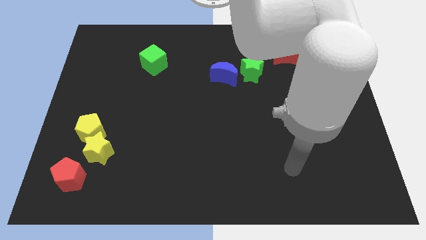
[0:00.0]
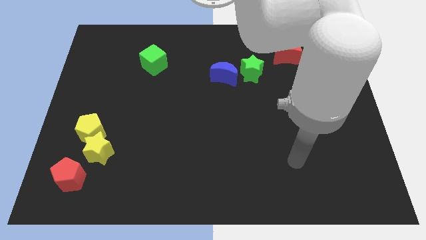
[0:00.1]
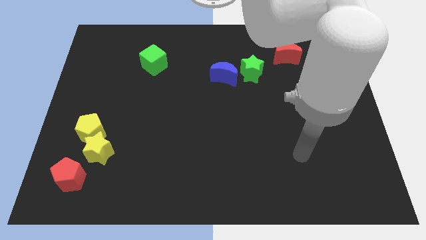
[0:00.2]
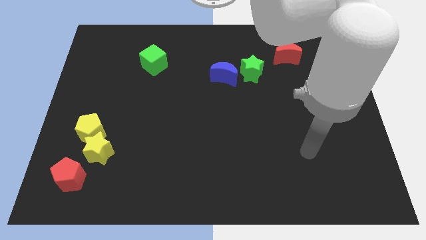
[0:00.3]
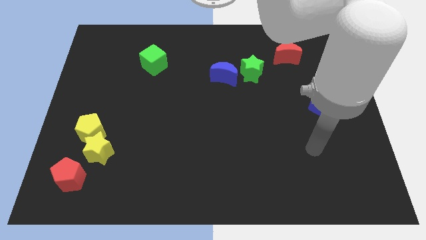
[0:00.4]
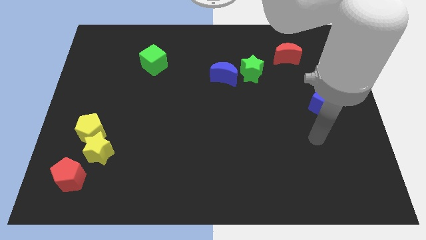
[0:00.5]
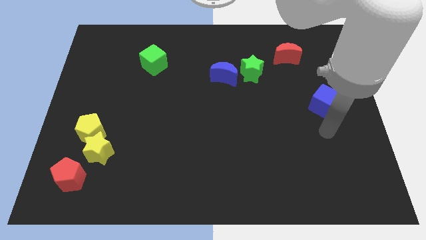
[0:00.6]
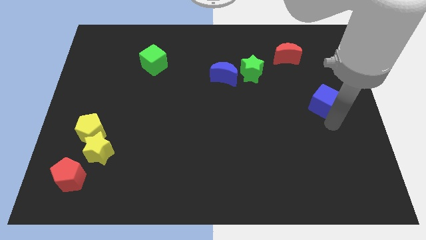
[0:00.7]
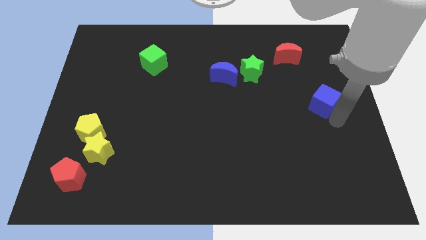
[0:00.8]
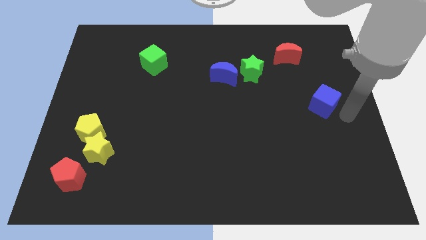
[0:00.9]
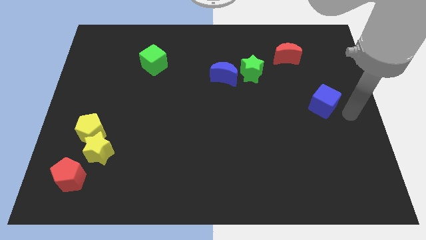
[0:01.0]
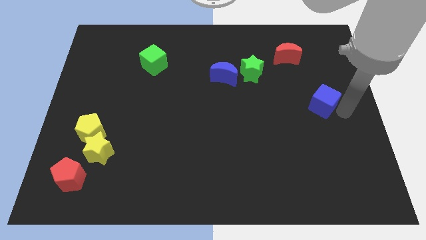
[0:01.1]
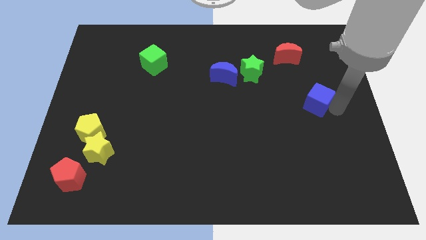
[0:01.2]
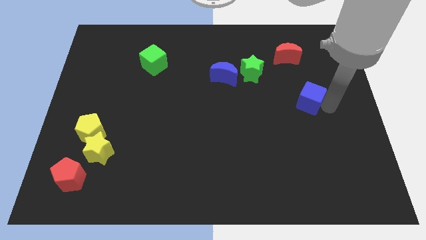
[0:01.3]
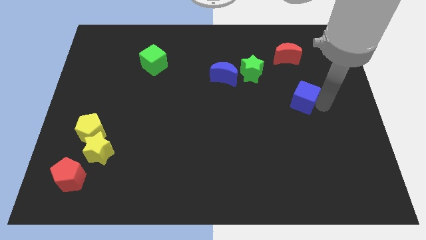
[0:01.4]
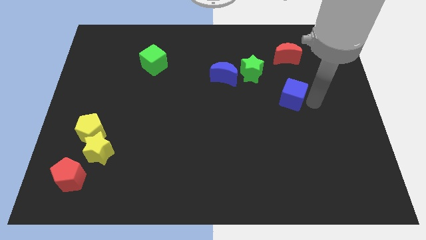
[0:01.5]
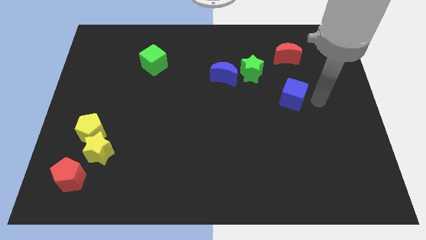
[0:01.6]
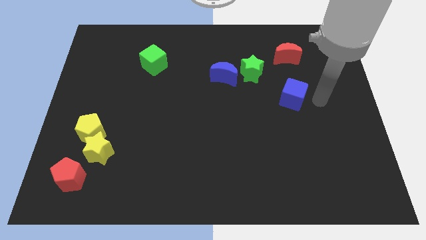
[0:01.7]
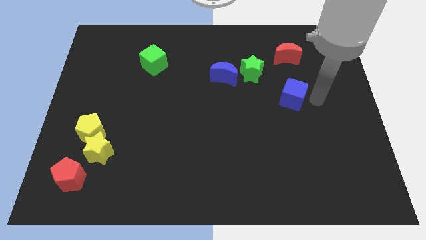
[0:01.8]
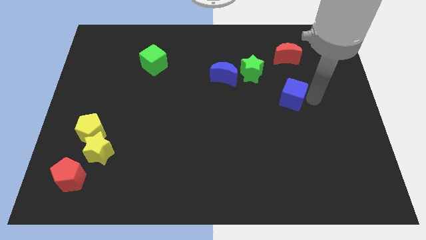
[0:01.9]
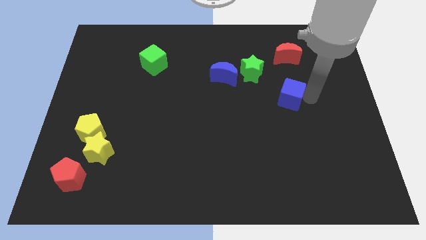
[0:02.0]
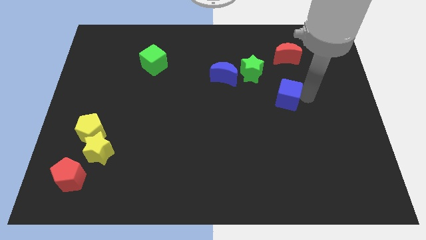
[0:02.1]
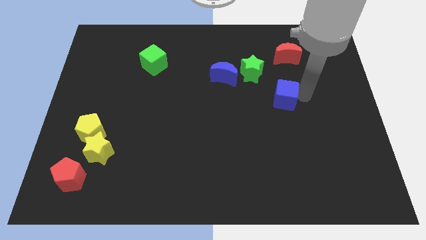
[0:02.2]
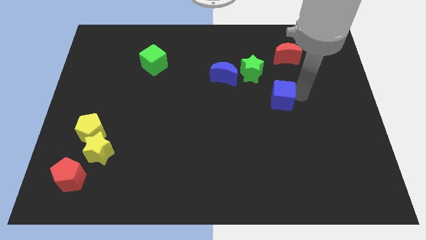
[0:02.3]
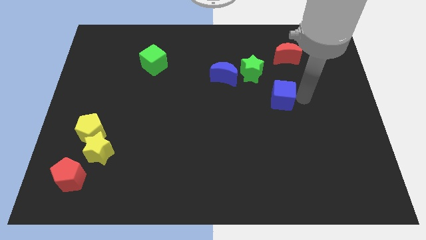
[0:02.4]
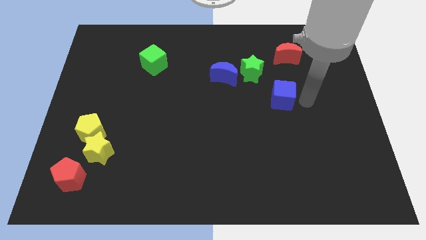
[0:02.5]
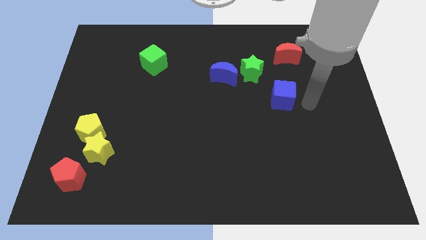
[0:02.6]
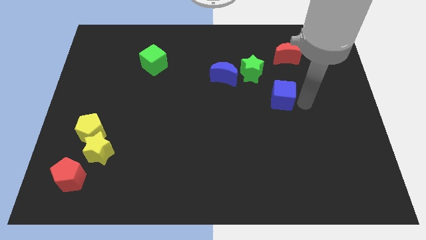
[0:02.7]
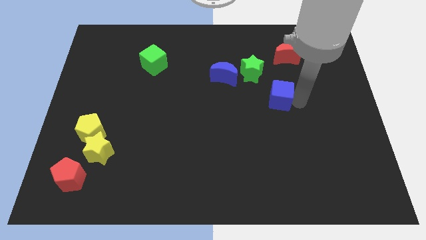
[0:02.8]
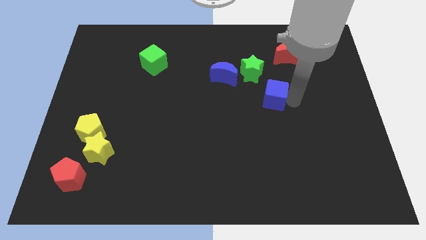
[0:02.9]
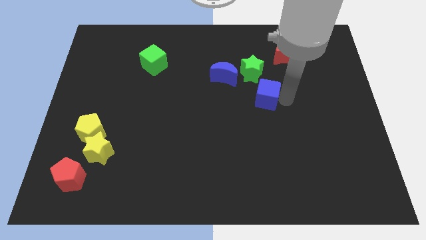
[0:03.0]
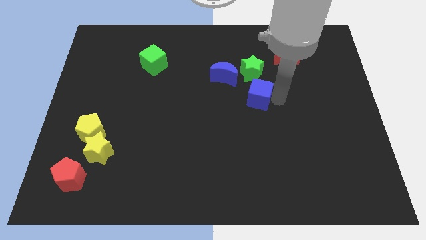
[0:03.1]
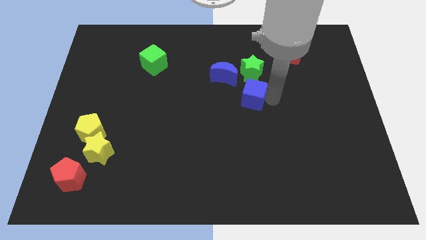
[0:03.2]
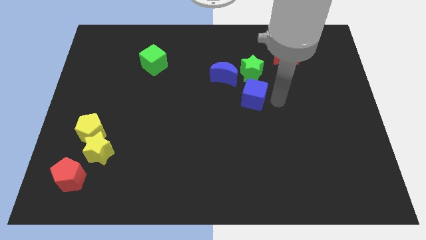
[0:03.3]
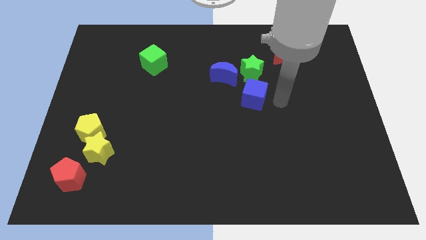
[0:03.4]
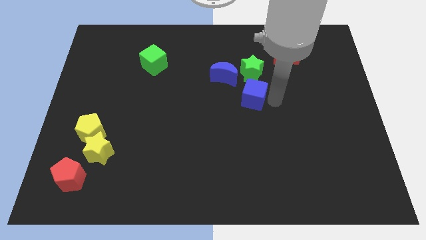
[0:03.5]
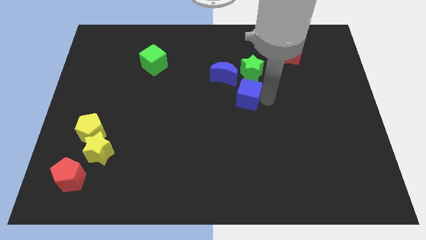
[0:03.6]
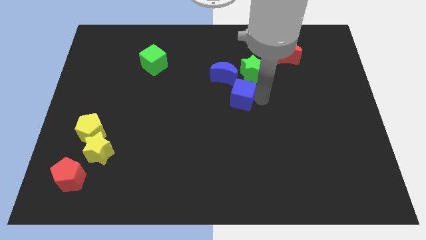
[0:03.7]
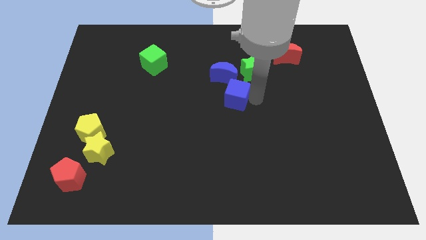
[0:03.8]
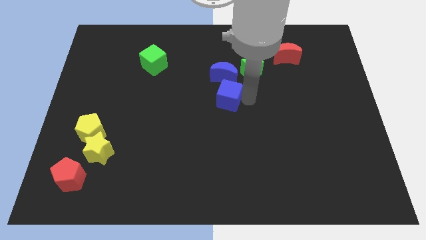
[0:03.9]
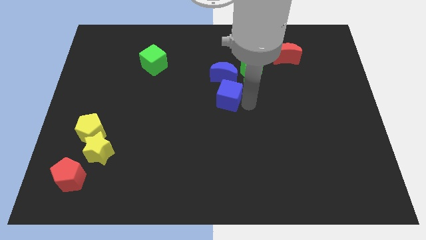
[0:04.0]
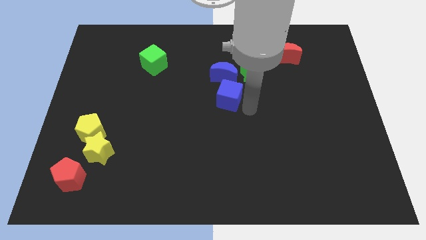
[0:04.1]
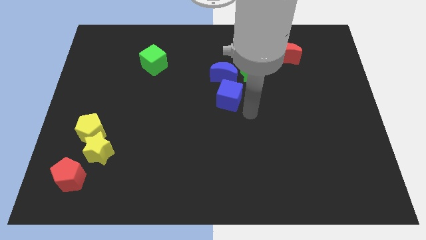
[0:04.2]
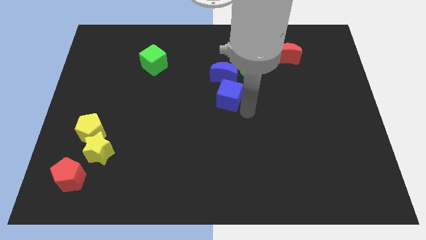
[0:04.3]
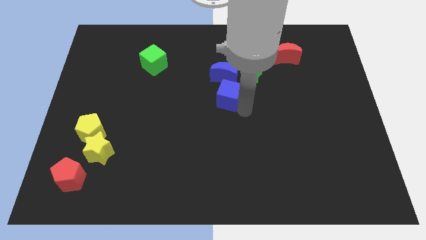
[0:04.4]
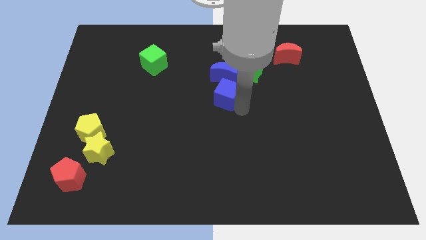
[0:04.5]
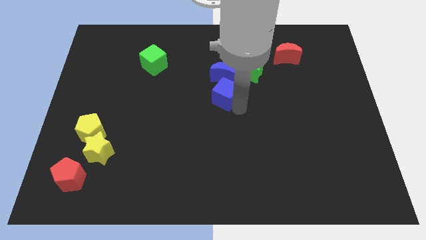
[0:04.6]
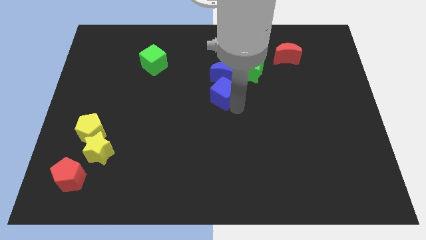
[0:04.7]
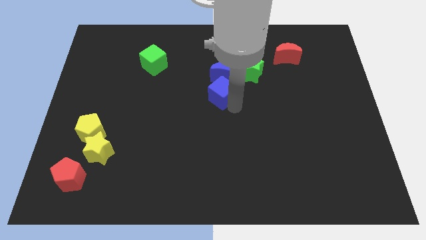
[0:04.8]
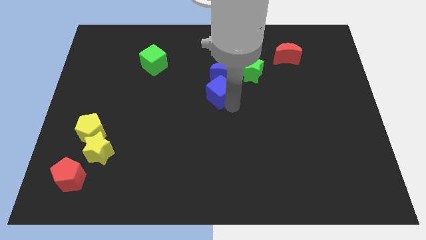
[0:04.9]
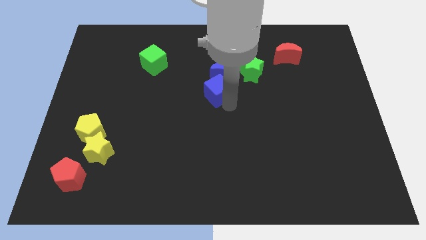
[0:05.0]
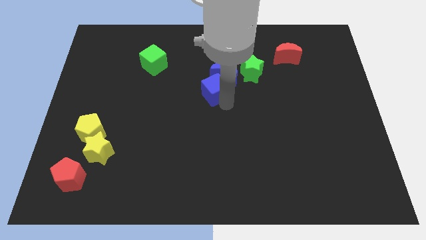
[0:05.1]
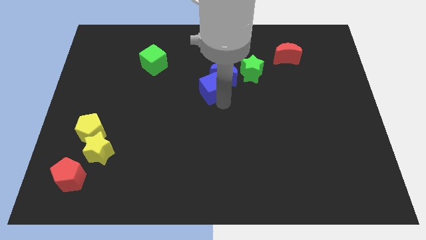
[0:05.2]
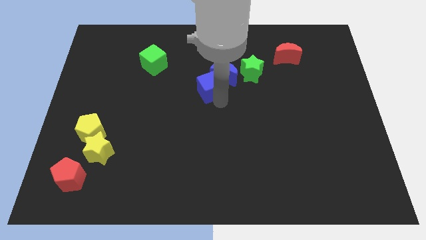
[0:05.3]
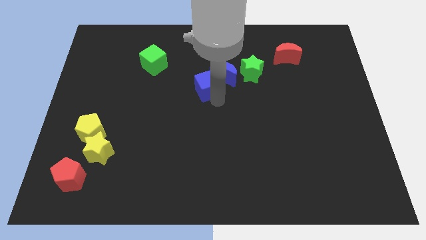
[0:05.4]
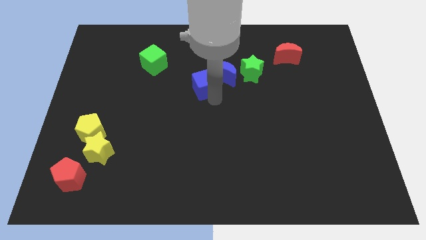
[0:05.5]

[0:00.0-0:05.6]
push the blue cube left of the green star

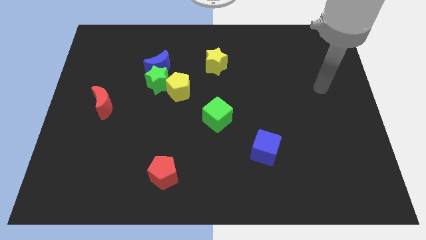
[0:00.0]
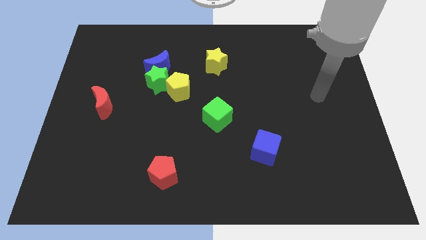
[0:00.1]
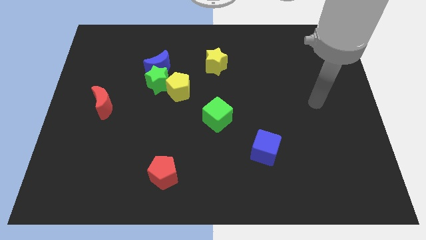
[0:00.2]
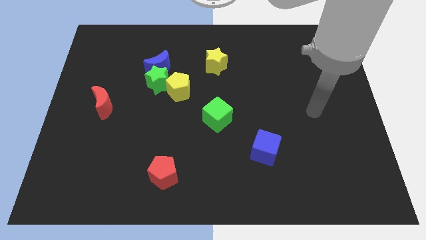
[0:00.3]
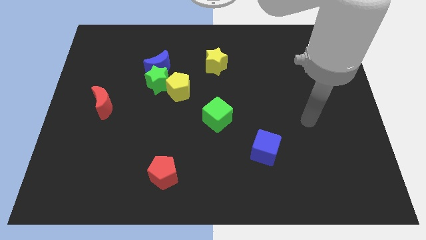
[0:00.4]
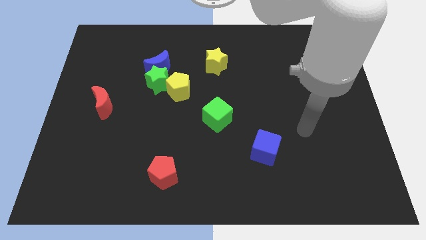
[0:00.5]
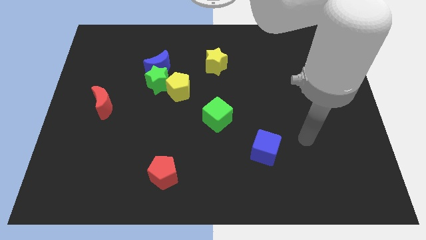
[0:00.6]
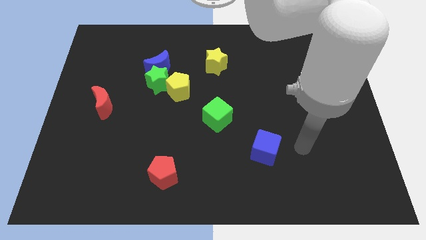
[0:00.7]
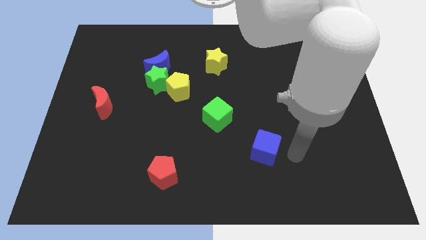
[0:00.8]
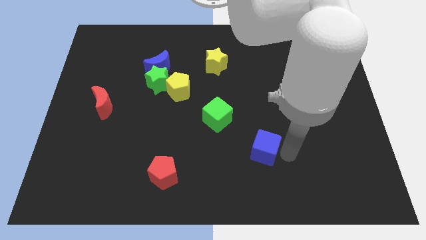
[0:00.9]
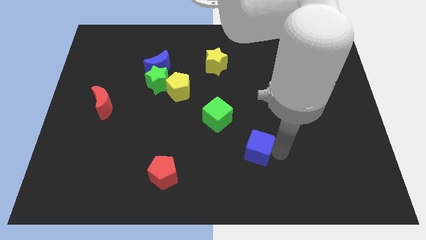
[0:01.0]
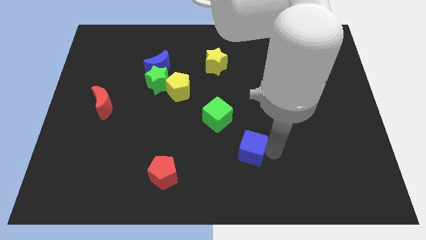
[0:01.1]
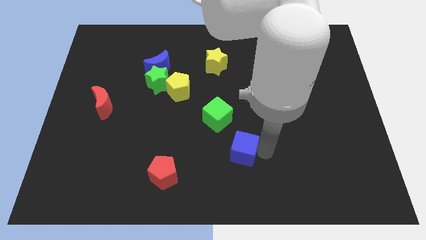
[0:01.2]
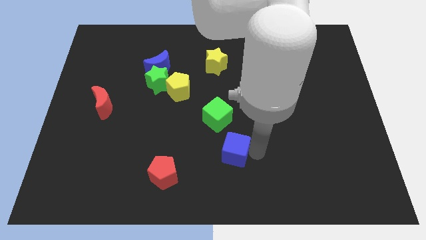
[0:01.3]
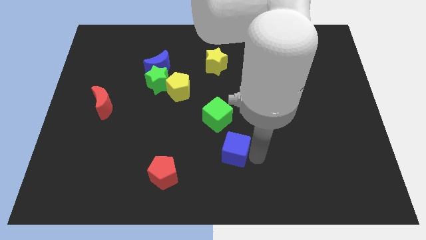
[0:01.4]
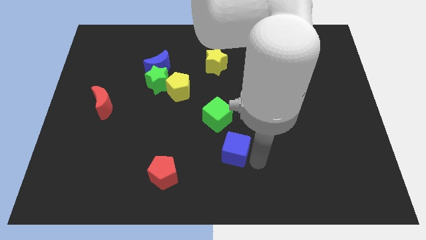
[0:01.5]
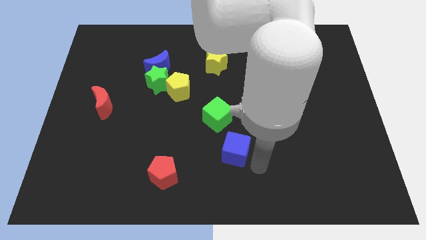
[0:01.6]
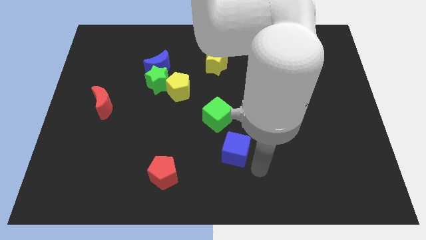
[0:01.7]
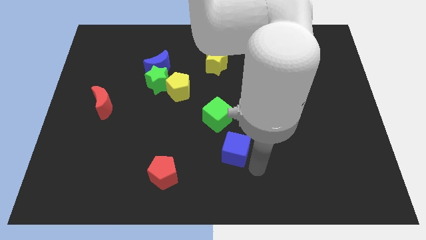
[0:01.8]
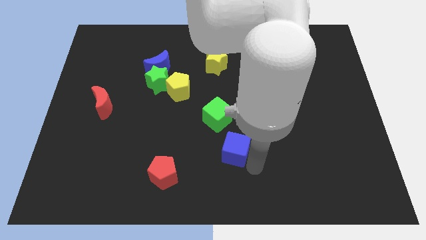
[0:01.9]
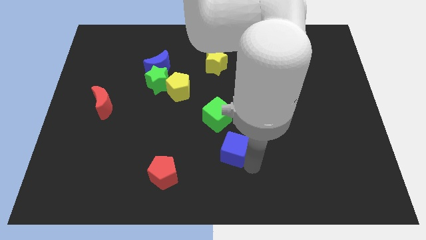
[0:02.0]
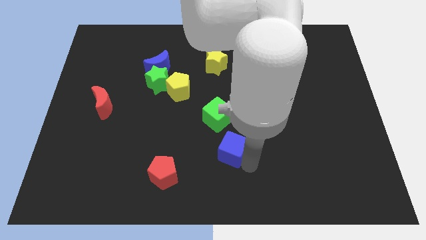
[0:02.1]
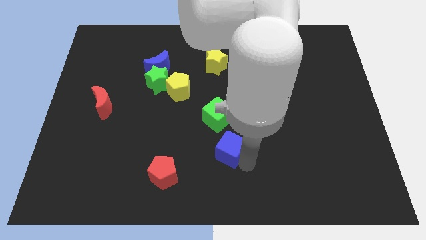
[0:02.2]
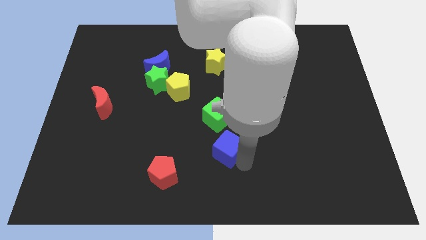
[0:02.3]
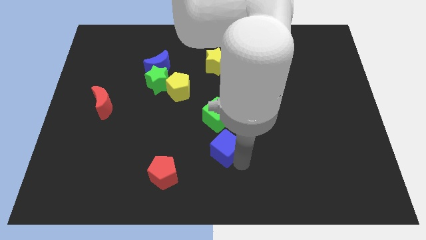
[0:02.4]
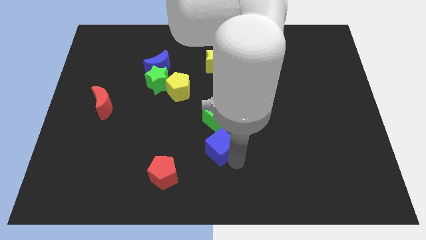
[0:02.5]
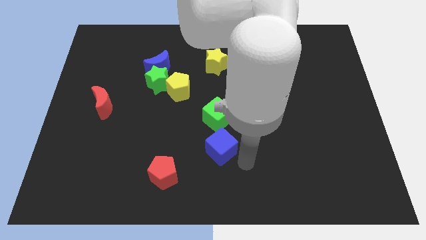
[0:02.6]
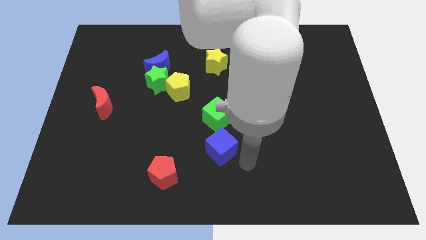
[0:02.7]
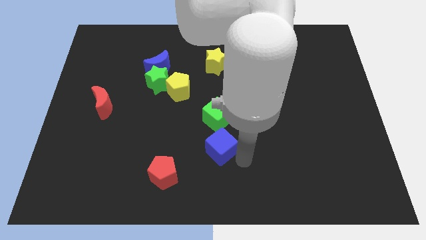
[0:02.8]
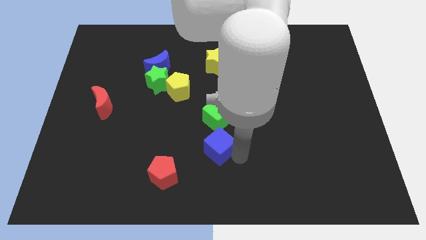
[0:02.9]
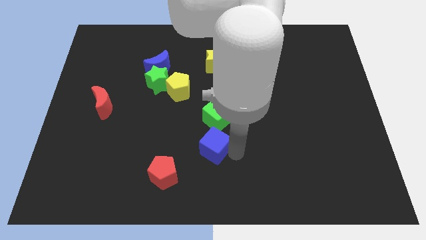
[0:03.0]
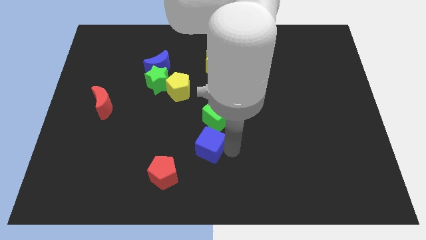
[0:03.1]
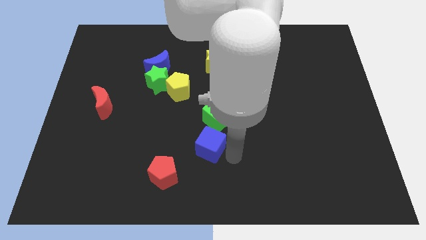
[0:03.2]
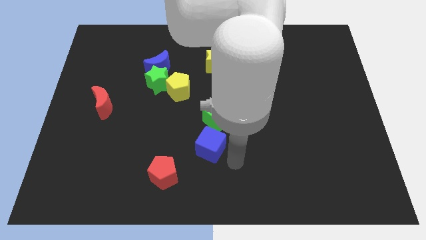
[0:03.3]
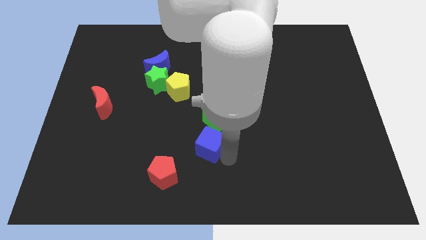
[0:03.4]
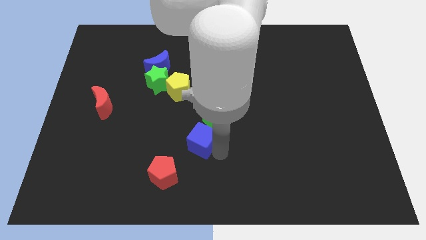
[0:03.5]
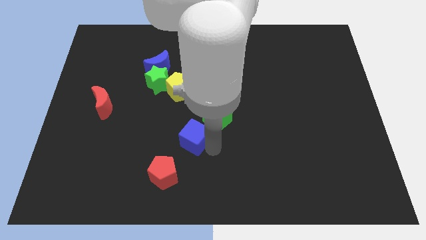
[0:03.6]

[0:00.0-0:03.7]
push the blue cube to the bottom side of the yellow pentagon
